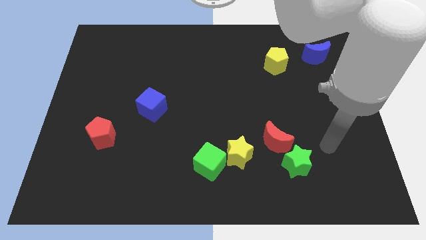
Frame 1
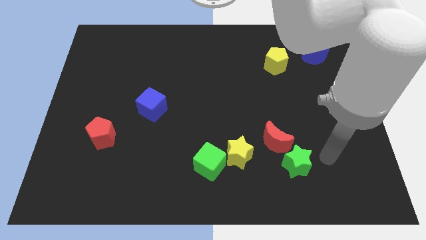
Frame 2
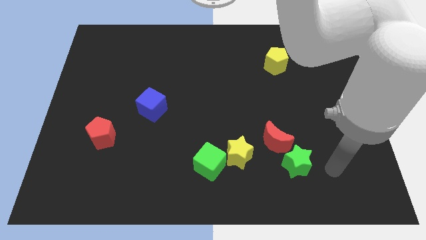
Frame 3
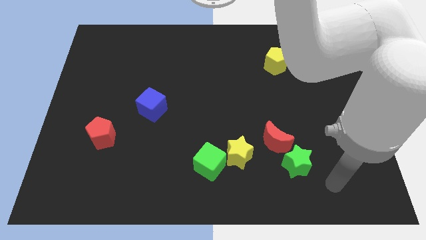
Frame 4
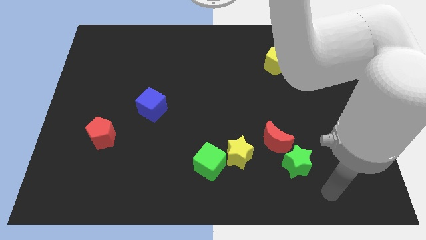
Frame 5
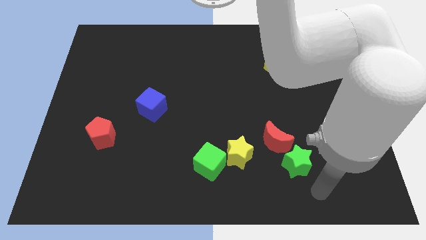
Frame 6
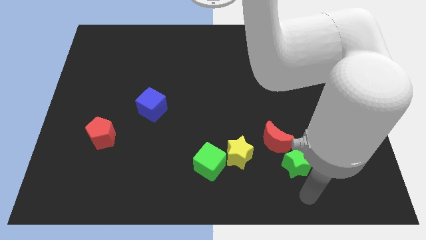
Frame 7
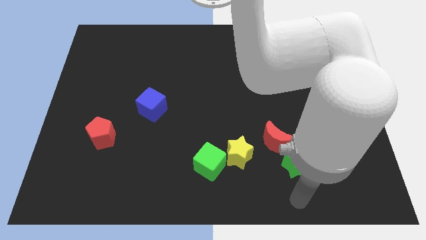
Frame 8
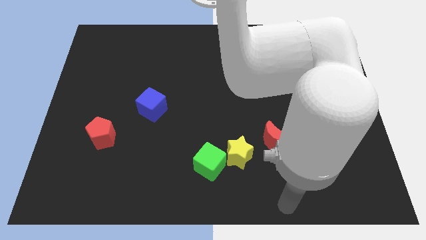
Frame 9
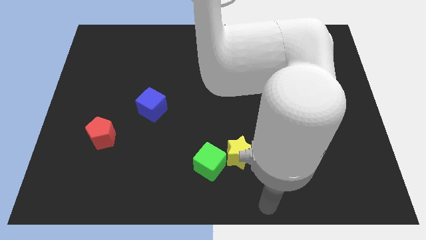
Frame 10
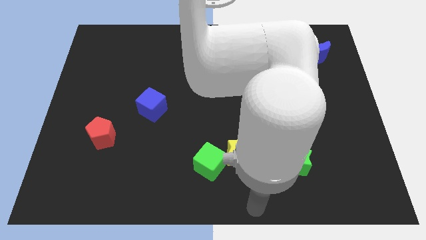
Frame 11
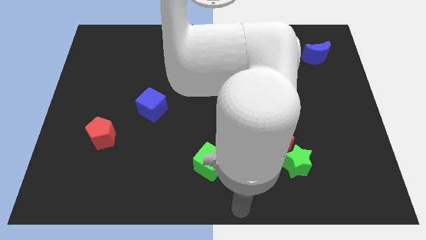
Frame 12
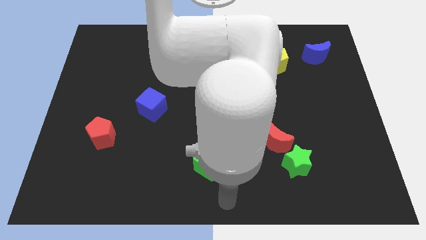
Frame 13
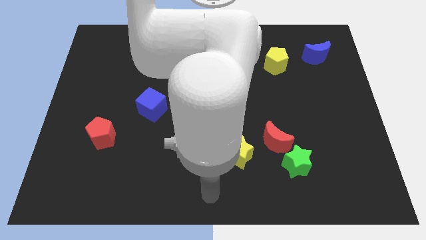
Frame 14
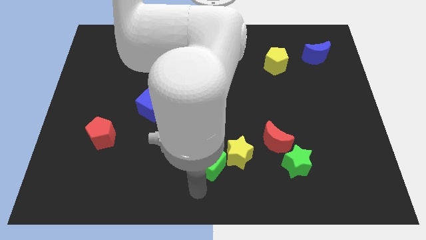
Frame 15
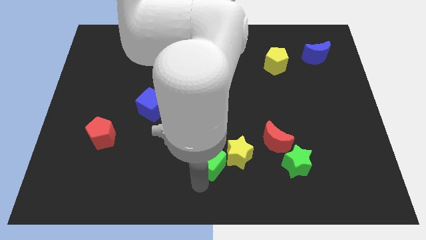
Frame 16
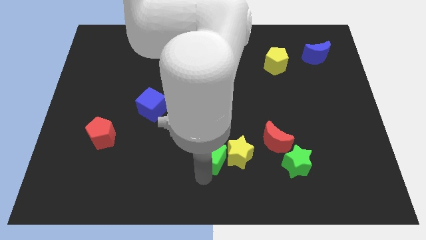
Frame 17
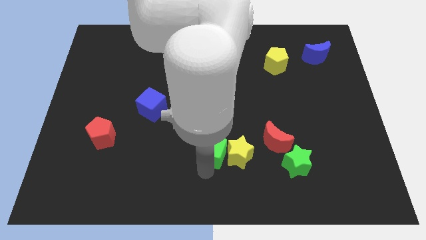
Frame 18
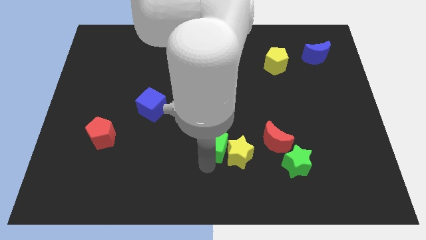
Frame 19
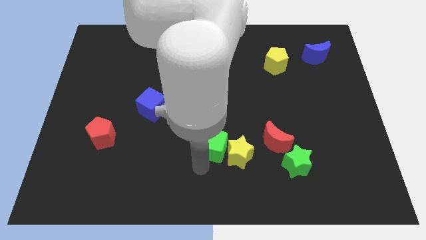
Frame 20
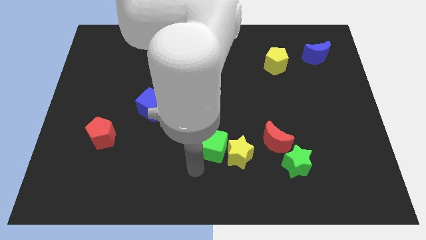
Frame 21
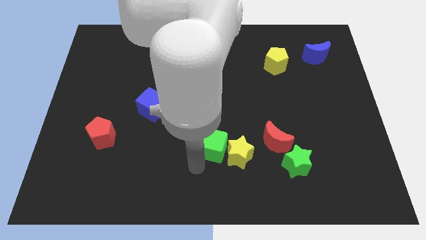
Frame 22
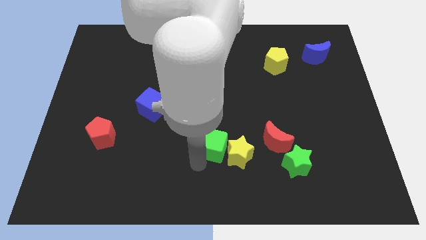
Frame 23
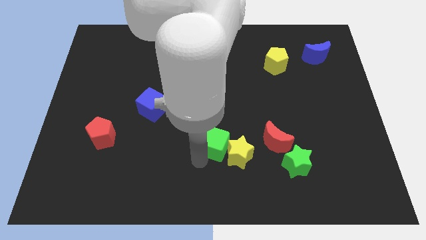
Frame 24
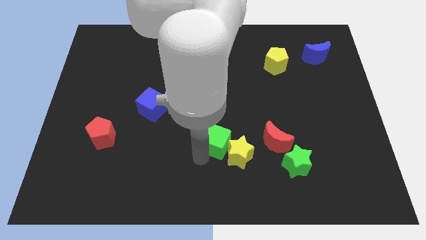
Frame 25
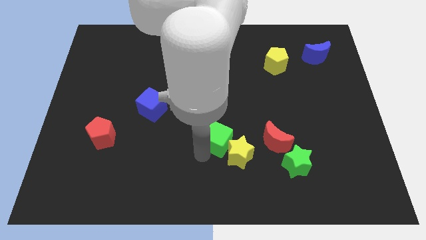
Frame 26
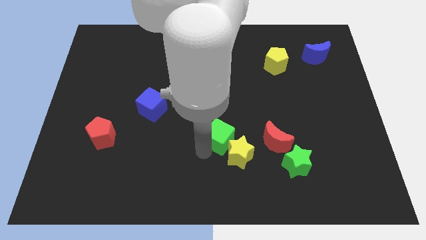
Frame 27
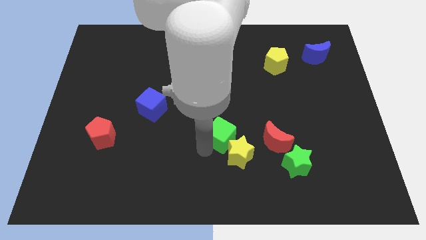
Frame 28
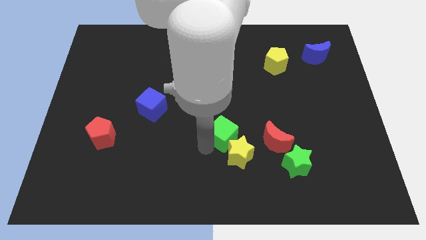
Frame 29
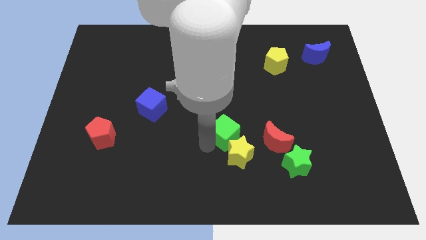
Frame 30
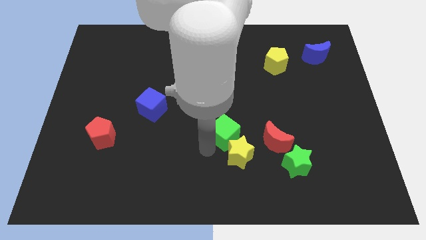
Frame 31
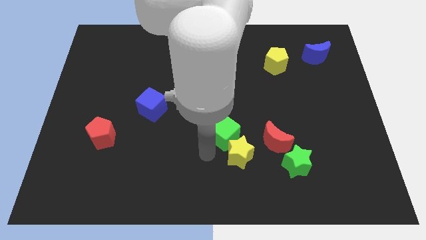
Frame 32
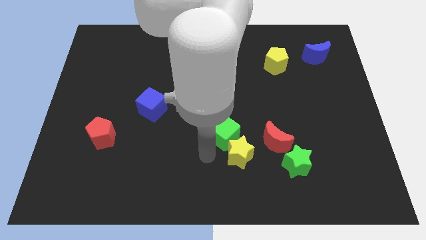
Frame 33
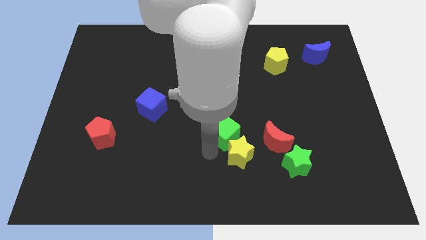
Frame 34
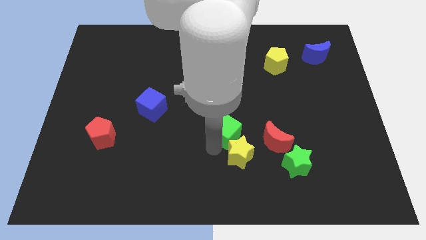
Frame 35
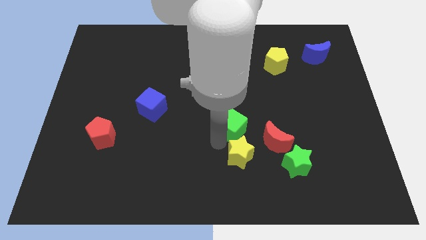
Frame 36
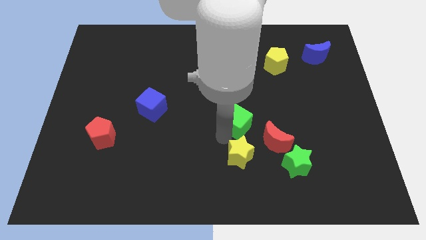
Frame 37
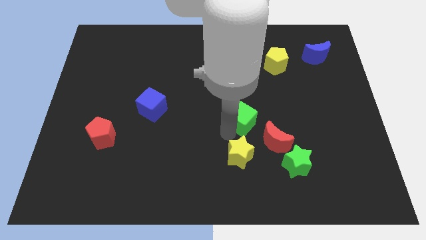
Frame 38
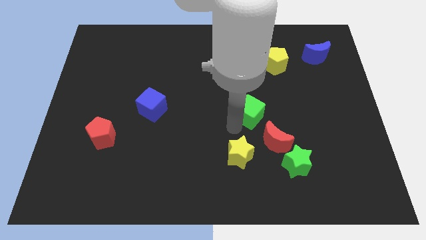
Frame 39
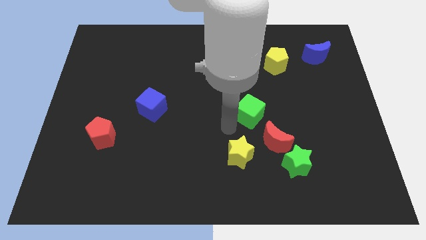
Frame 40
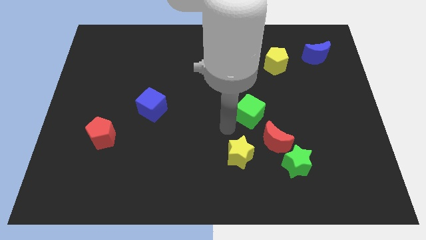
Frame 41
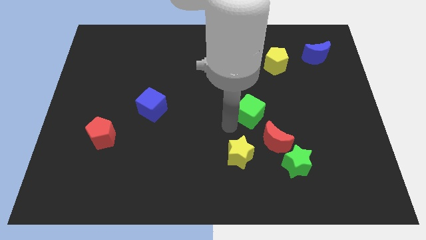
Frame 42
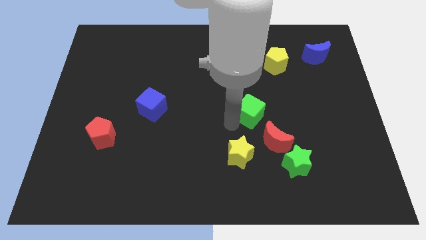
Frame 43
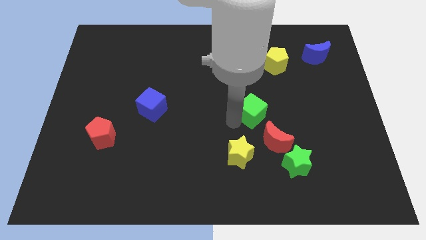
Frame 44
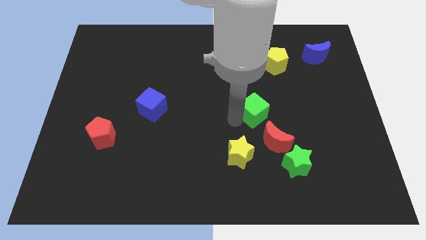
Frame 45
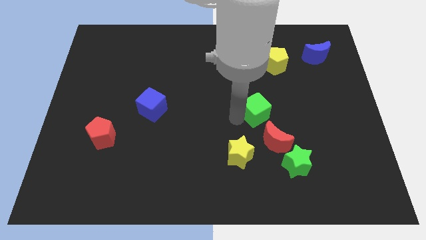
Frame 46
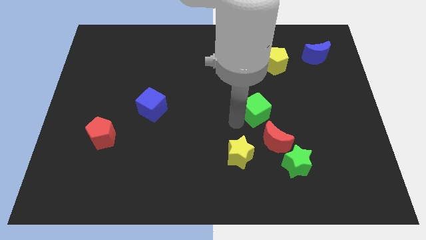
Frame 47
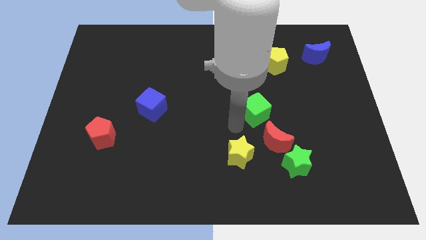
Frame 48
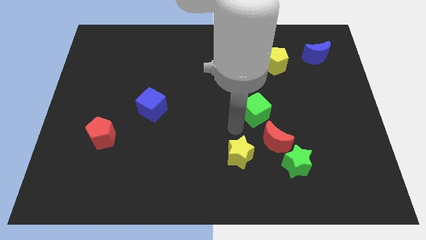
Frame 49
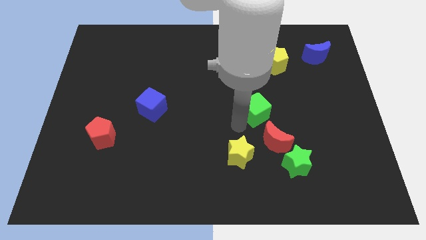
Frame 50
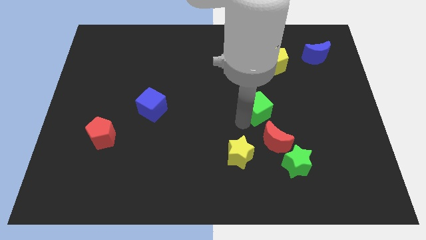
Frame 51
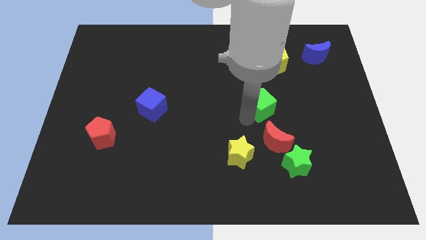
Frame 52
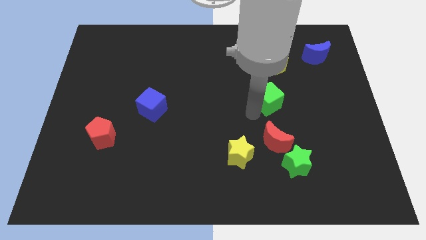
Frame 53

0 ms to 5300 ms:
slide the green cube upwards and then to the right

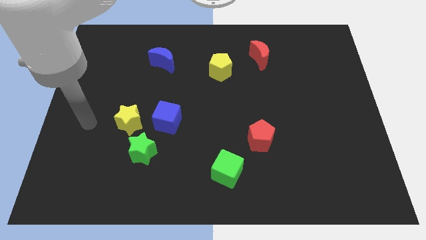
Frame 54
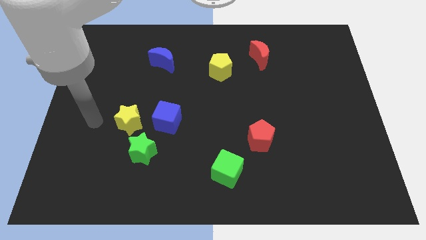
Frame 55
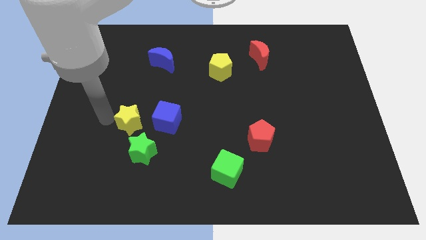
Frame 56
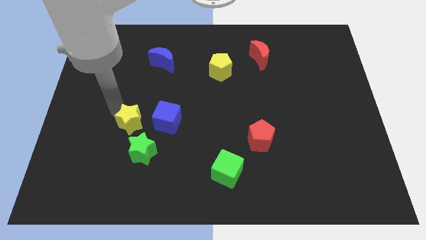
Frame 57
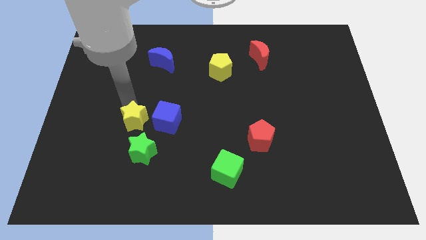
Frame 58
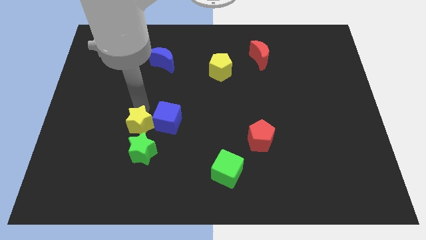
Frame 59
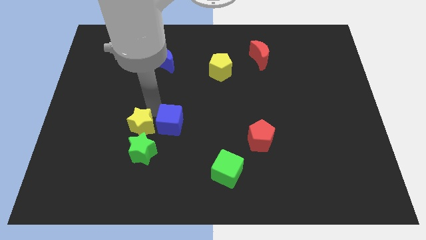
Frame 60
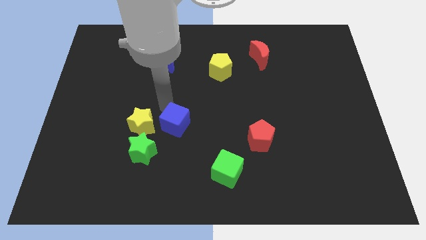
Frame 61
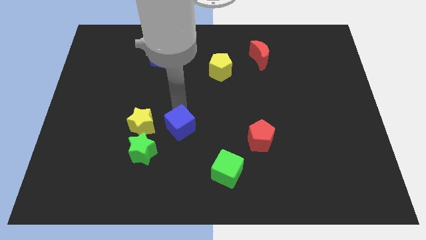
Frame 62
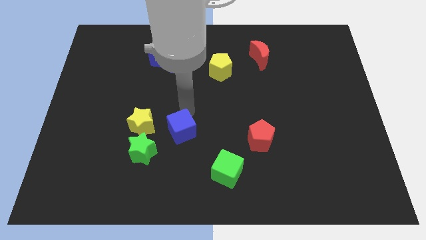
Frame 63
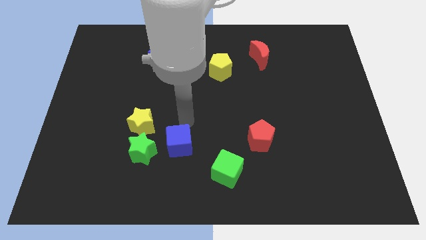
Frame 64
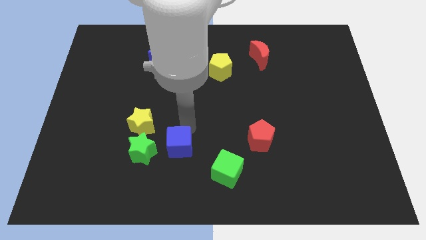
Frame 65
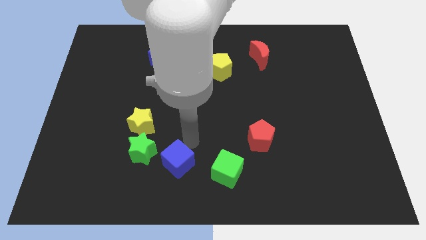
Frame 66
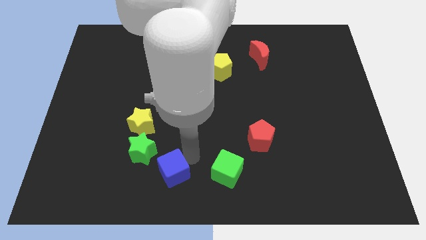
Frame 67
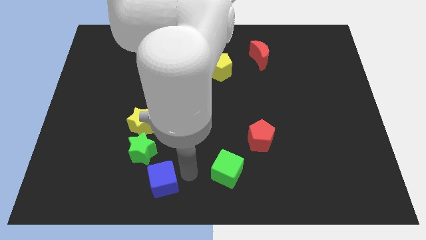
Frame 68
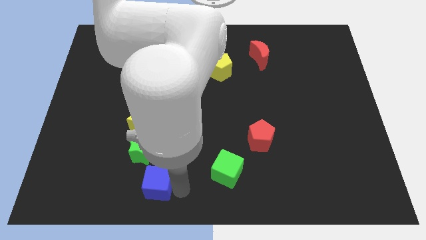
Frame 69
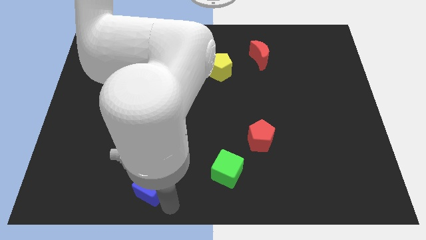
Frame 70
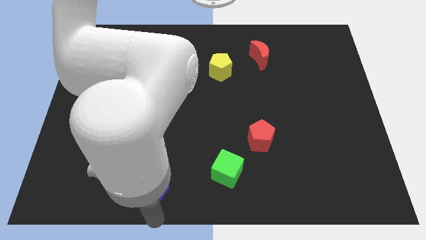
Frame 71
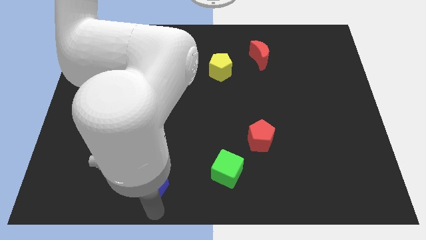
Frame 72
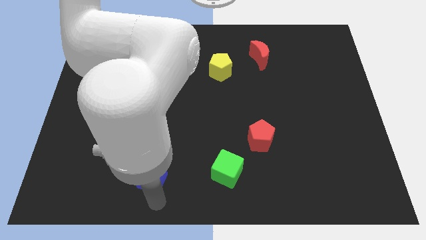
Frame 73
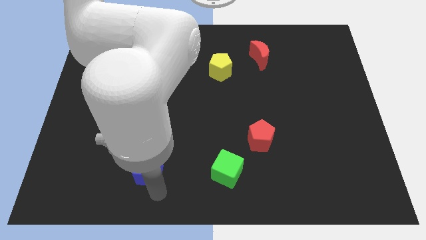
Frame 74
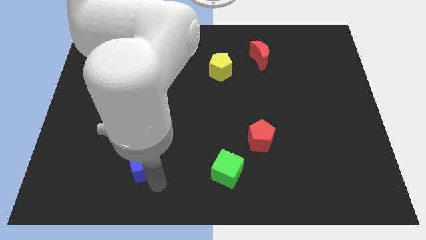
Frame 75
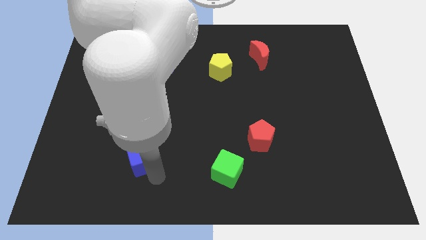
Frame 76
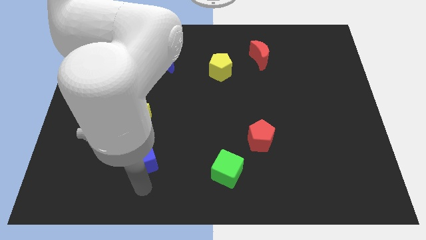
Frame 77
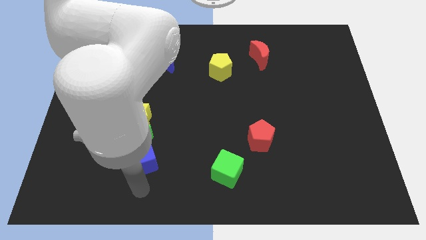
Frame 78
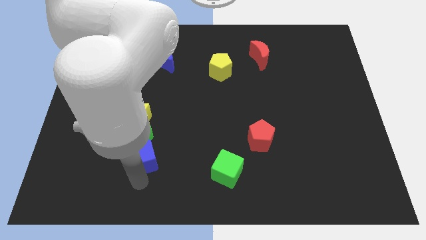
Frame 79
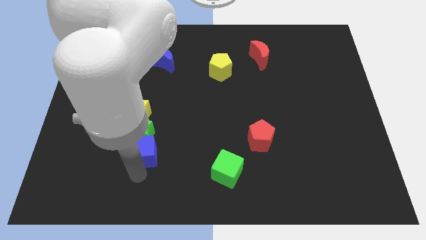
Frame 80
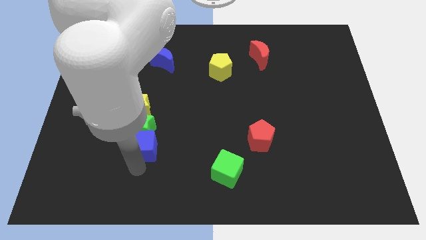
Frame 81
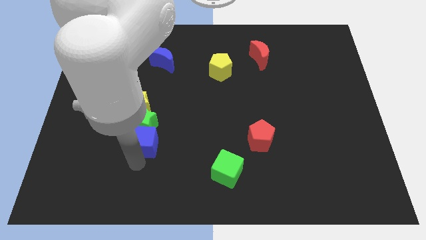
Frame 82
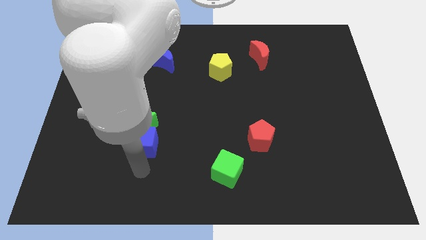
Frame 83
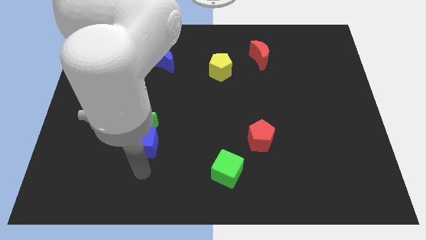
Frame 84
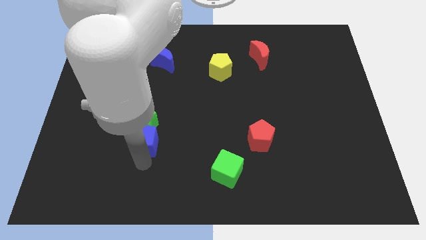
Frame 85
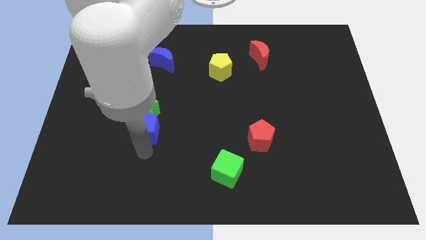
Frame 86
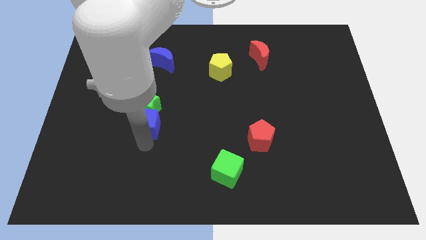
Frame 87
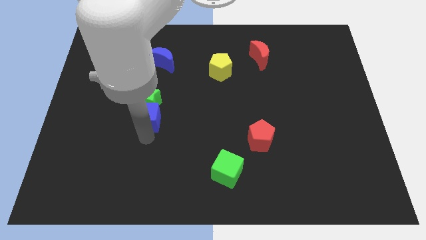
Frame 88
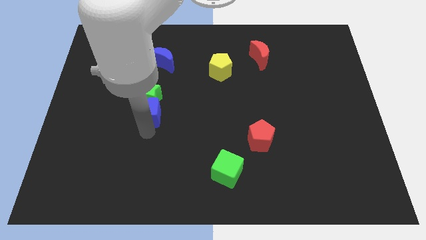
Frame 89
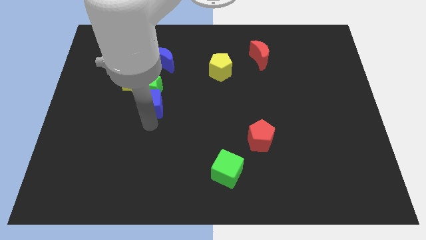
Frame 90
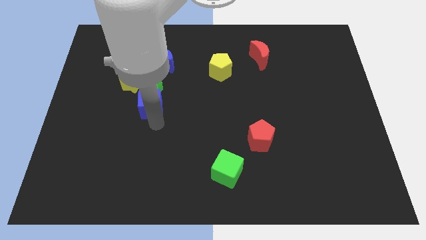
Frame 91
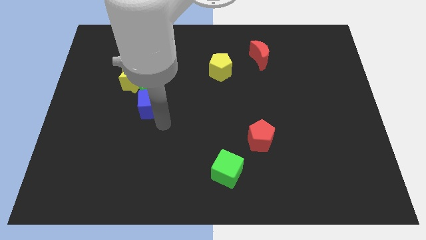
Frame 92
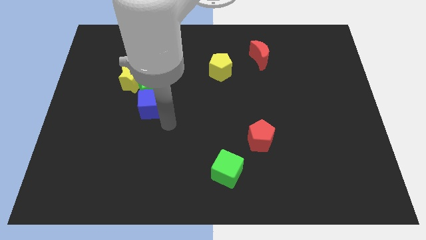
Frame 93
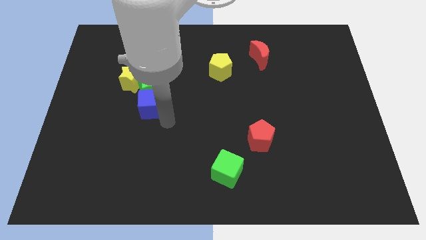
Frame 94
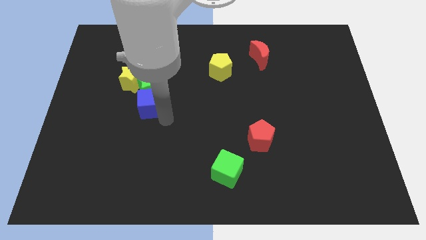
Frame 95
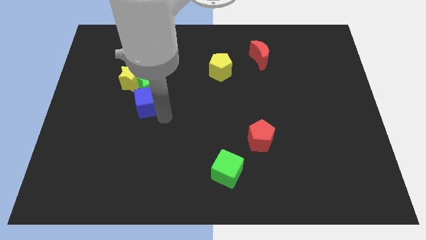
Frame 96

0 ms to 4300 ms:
slide the blue cube up and to the left diagonally a little bit
